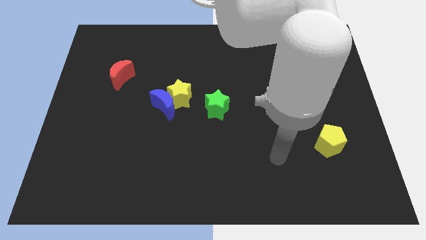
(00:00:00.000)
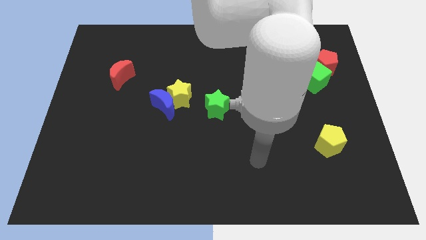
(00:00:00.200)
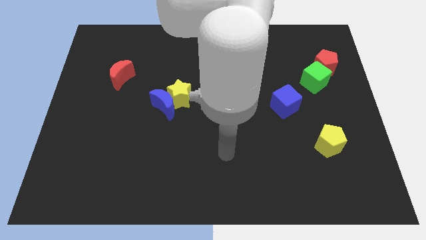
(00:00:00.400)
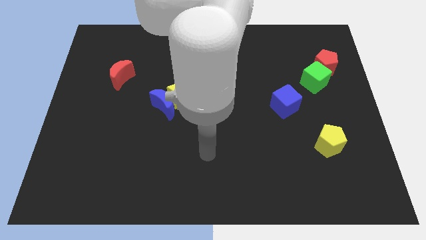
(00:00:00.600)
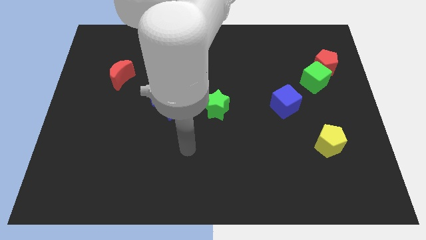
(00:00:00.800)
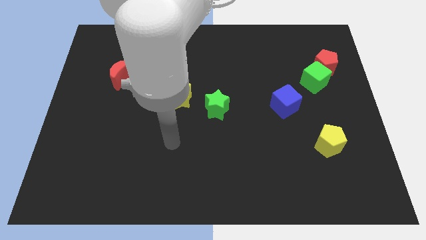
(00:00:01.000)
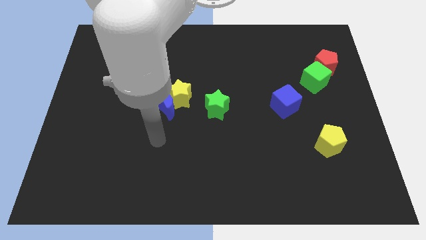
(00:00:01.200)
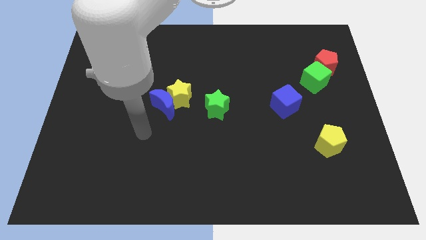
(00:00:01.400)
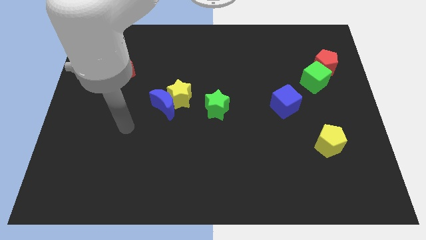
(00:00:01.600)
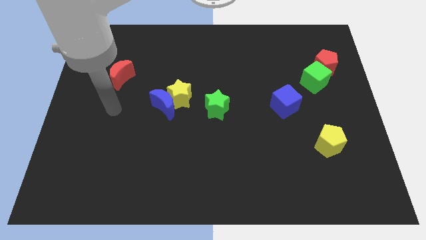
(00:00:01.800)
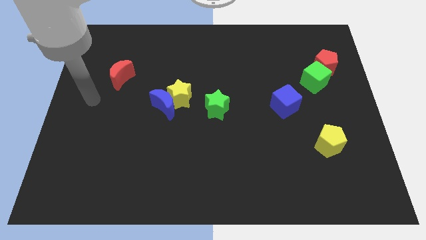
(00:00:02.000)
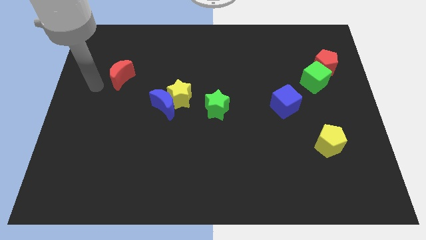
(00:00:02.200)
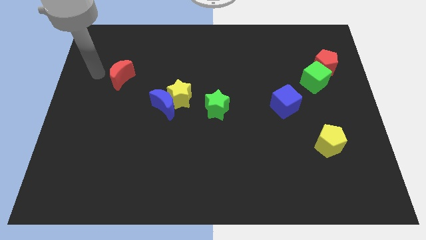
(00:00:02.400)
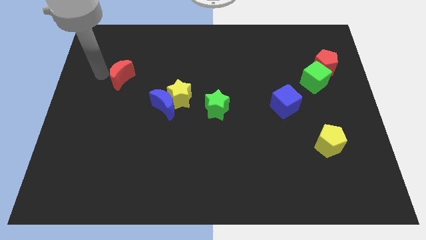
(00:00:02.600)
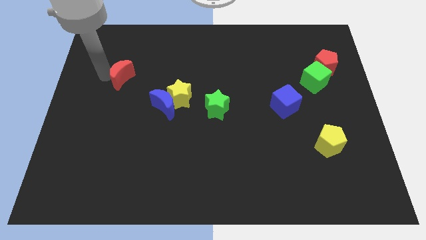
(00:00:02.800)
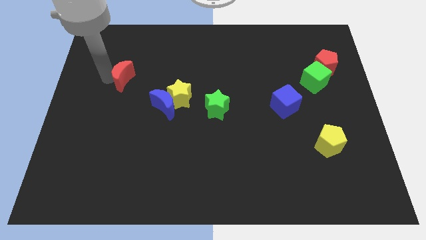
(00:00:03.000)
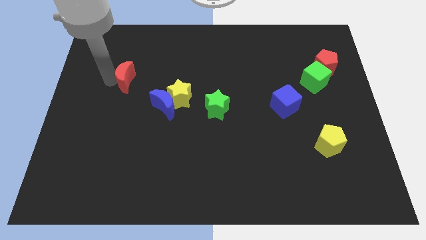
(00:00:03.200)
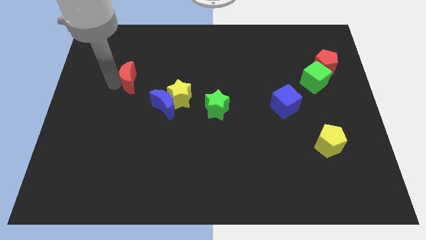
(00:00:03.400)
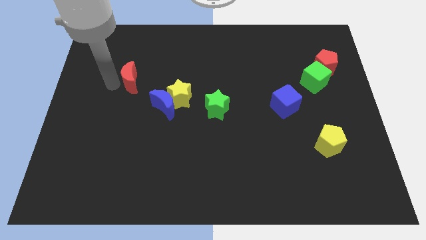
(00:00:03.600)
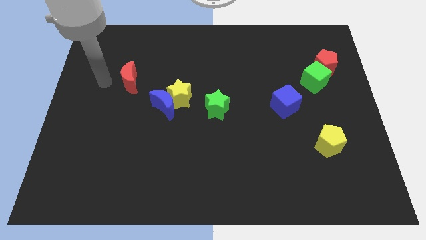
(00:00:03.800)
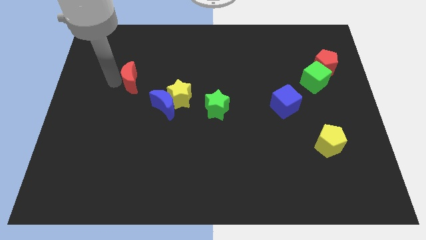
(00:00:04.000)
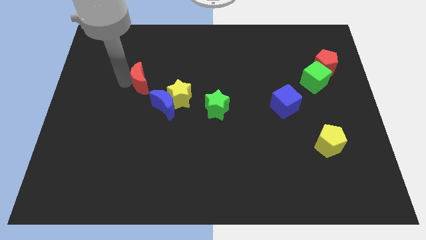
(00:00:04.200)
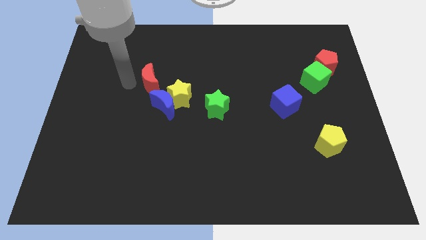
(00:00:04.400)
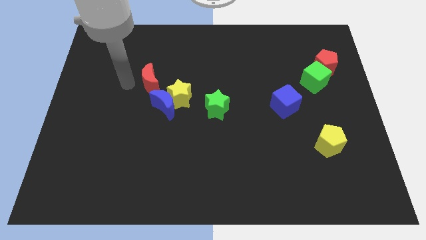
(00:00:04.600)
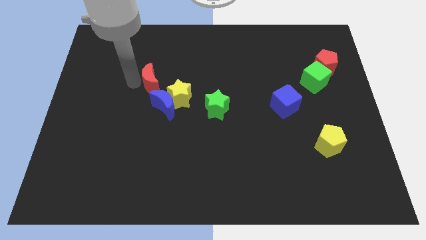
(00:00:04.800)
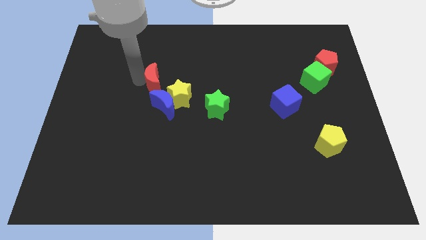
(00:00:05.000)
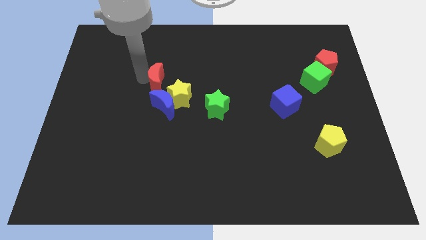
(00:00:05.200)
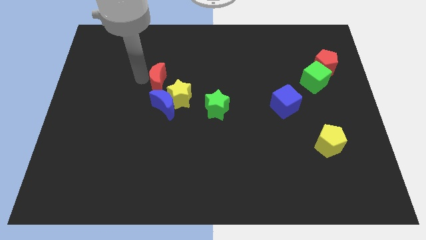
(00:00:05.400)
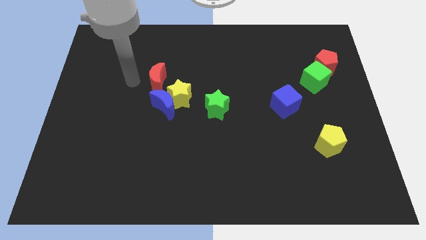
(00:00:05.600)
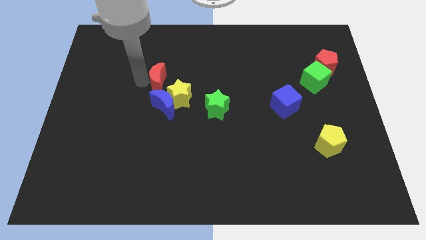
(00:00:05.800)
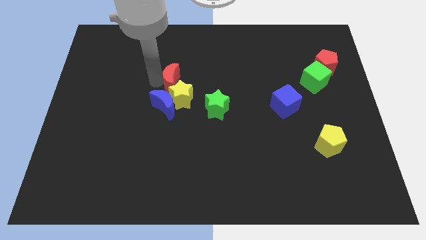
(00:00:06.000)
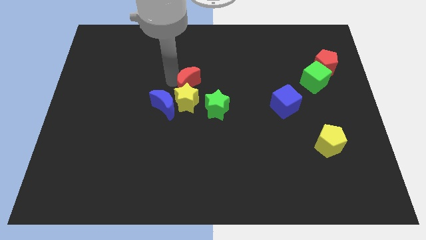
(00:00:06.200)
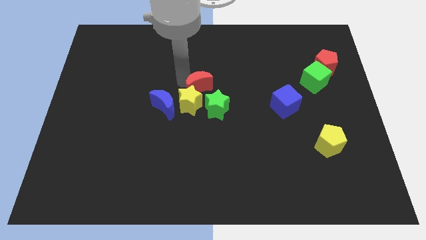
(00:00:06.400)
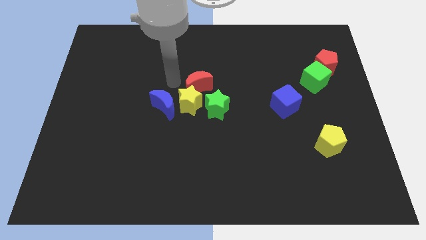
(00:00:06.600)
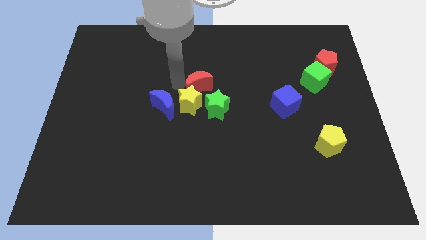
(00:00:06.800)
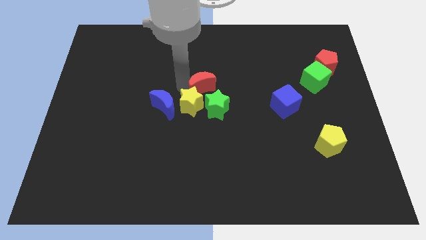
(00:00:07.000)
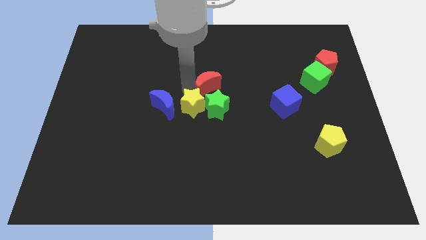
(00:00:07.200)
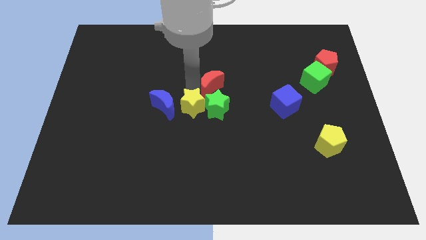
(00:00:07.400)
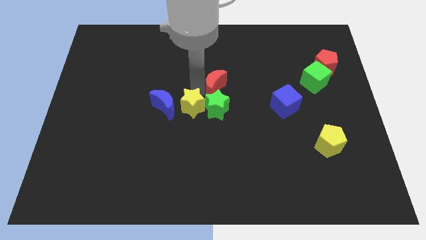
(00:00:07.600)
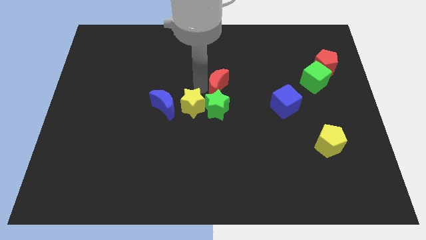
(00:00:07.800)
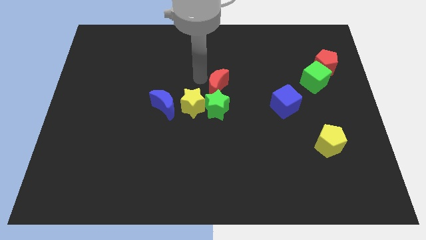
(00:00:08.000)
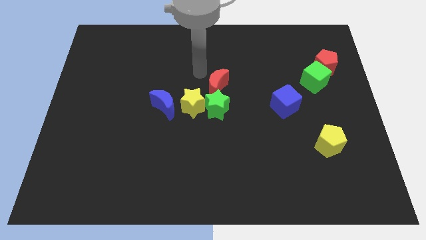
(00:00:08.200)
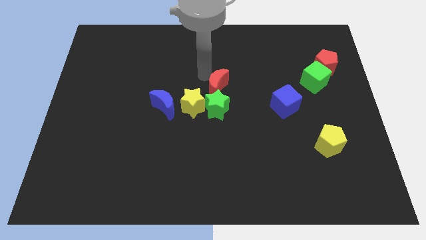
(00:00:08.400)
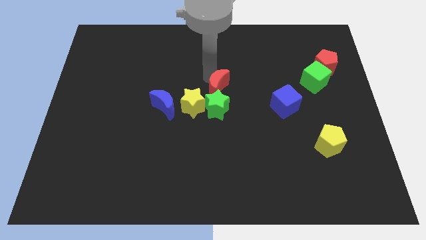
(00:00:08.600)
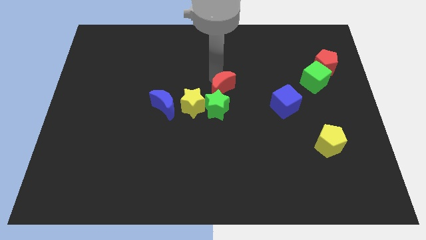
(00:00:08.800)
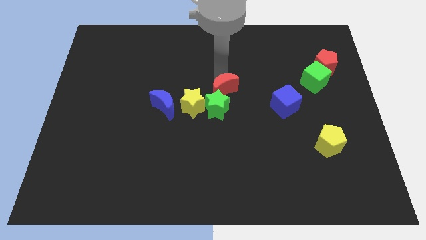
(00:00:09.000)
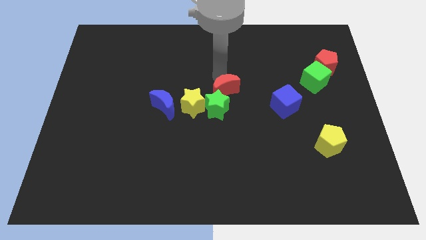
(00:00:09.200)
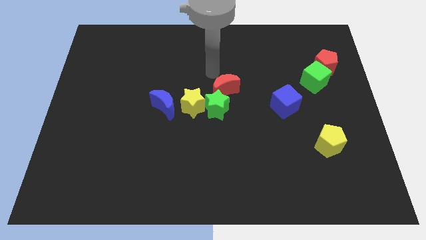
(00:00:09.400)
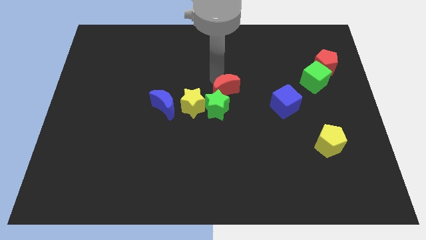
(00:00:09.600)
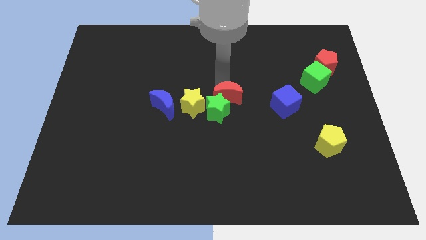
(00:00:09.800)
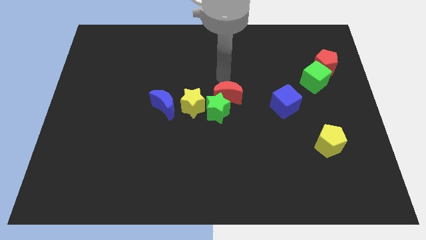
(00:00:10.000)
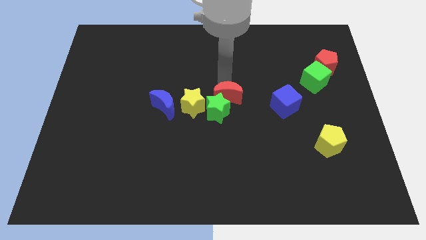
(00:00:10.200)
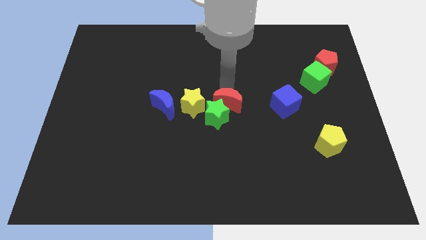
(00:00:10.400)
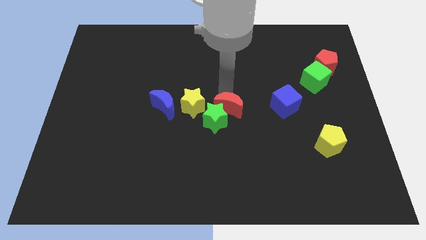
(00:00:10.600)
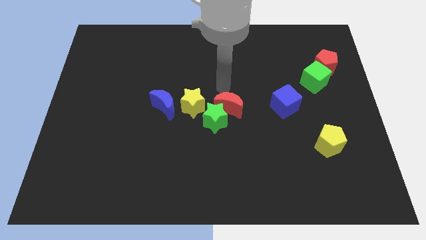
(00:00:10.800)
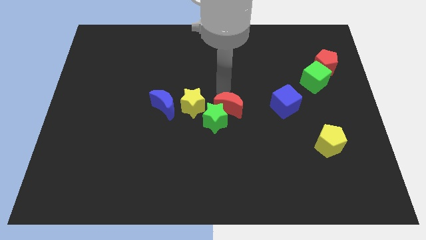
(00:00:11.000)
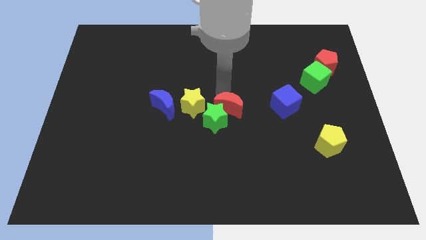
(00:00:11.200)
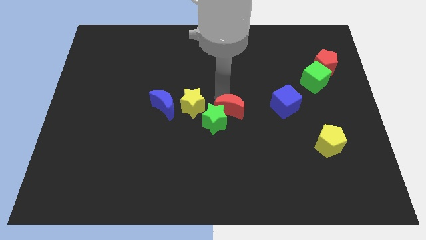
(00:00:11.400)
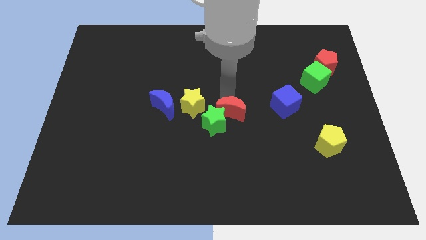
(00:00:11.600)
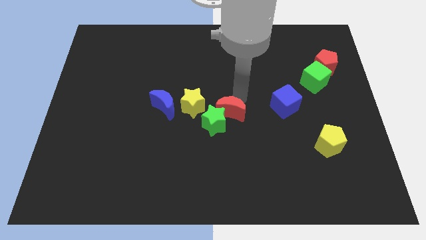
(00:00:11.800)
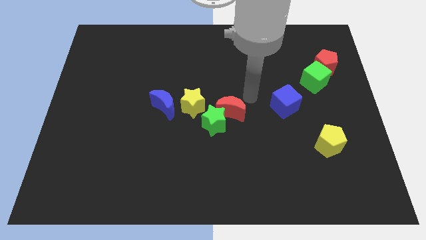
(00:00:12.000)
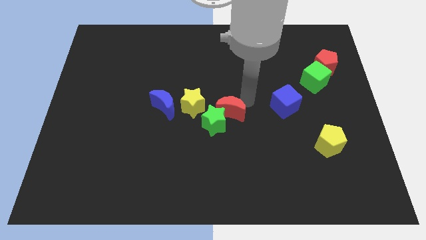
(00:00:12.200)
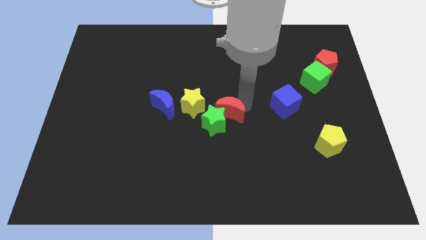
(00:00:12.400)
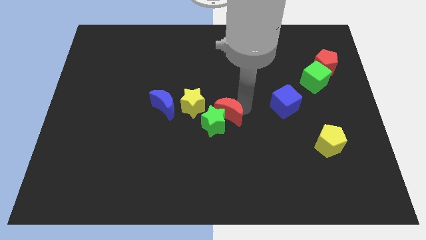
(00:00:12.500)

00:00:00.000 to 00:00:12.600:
move the red moon to the bottom right of the yellow star

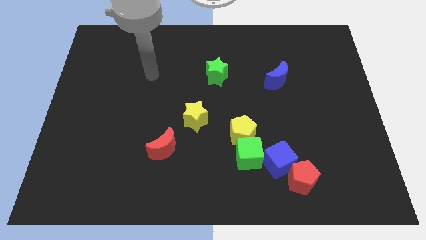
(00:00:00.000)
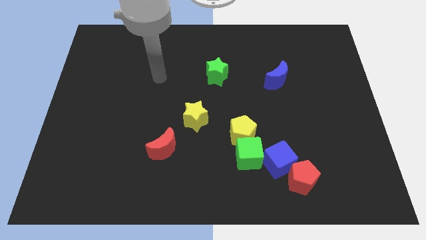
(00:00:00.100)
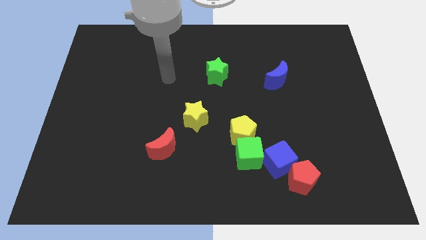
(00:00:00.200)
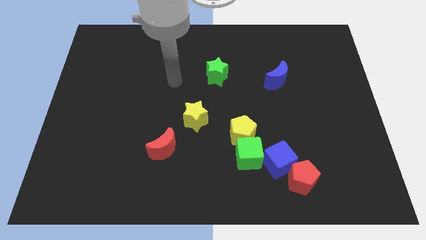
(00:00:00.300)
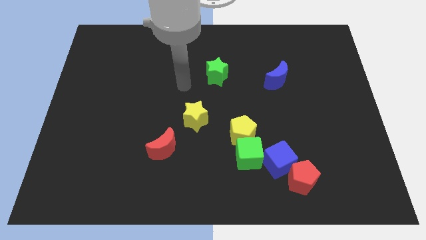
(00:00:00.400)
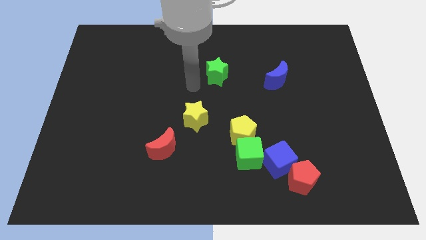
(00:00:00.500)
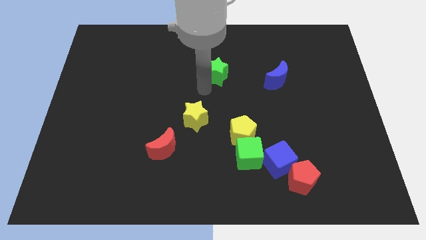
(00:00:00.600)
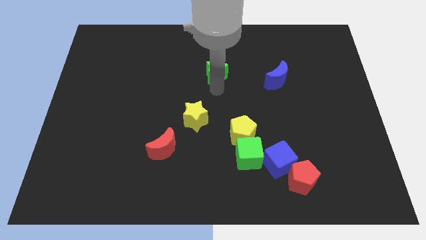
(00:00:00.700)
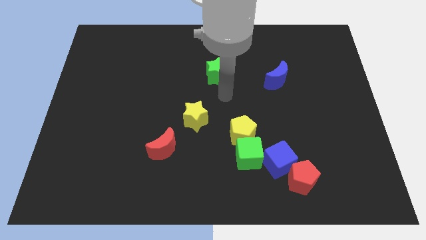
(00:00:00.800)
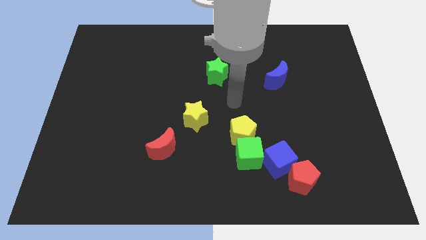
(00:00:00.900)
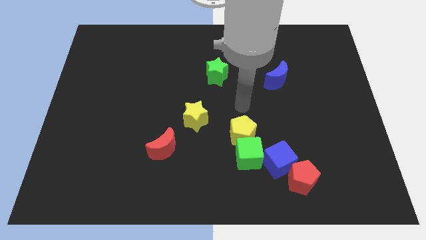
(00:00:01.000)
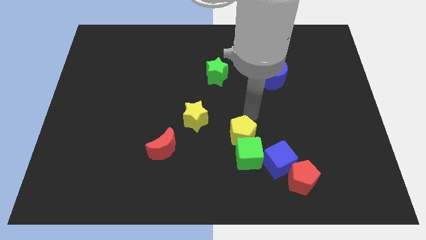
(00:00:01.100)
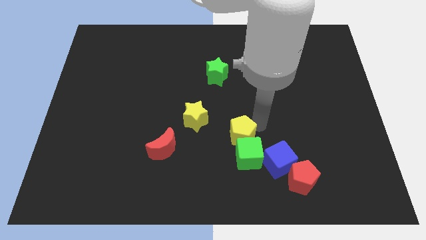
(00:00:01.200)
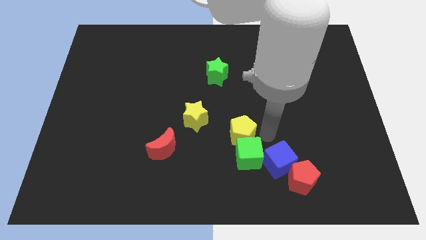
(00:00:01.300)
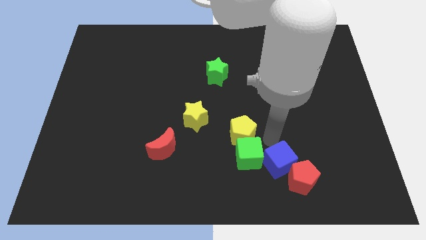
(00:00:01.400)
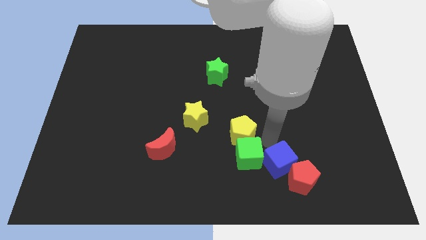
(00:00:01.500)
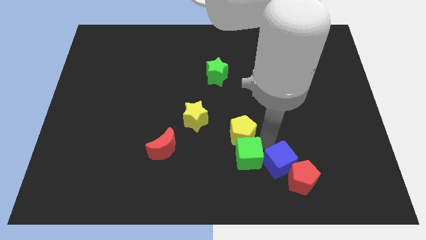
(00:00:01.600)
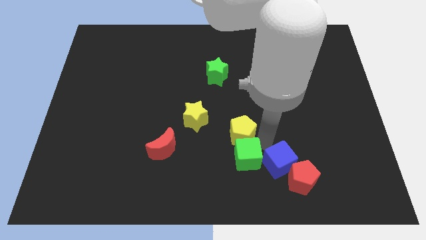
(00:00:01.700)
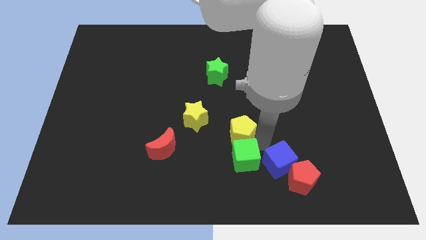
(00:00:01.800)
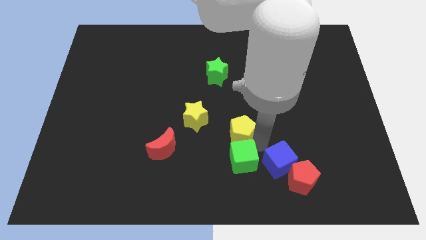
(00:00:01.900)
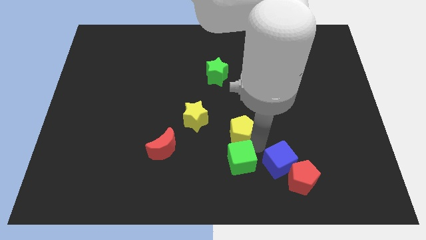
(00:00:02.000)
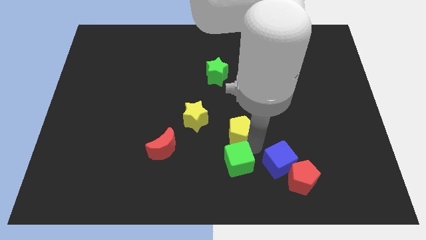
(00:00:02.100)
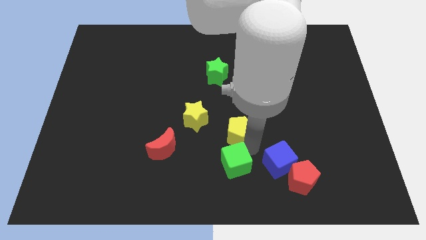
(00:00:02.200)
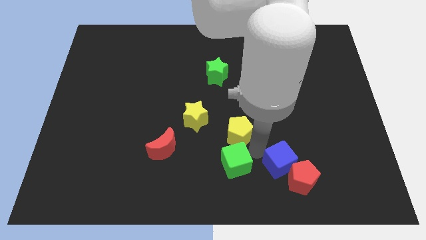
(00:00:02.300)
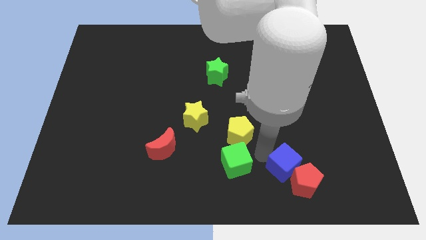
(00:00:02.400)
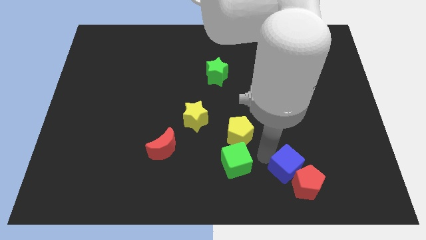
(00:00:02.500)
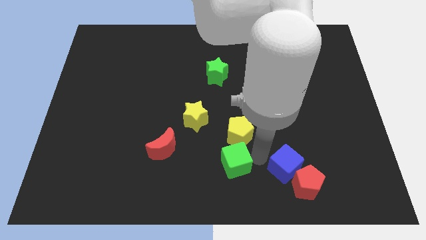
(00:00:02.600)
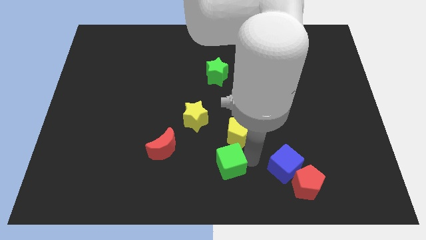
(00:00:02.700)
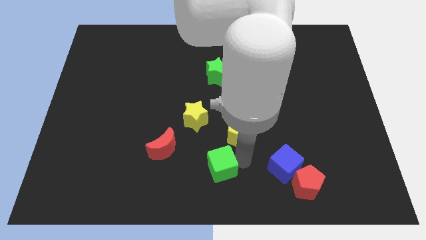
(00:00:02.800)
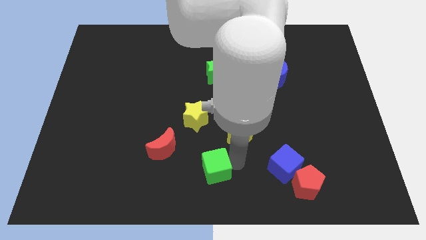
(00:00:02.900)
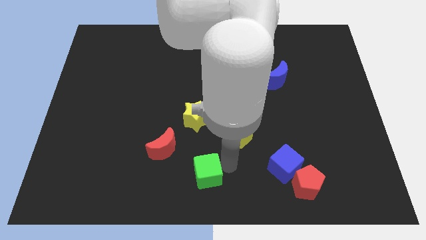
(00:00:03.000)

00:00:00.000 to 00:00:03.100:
push the green cube to the bottom right side of the red moon
